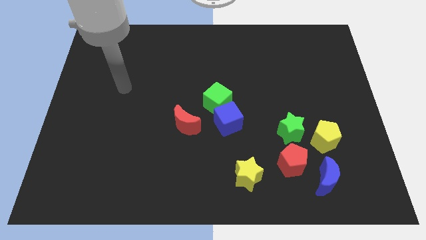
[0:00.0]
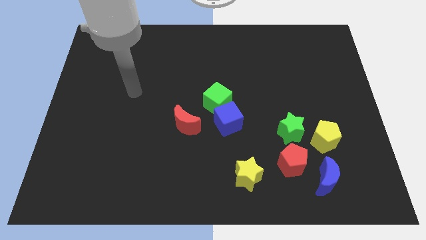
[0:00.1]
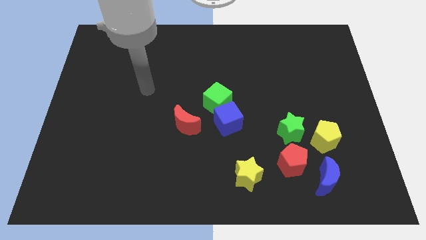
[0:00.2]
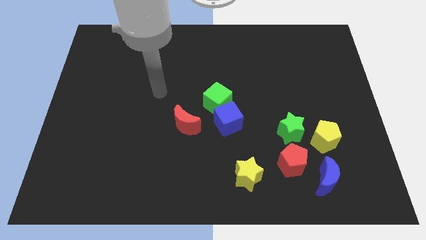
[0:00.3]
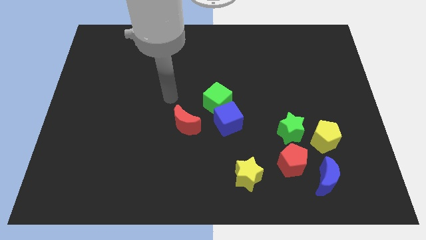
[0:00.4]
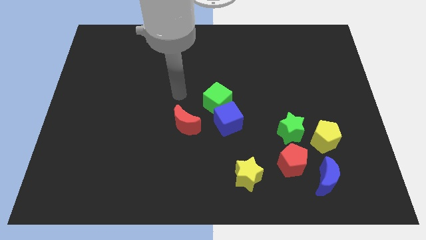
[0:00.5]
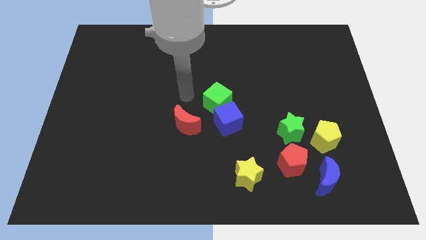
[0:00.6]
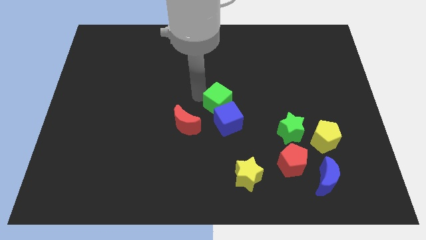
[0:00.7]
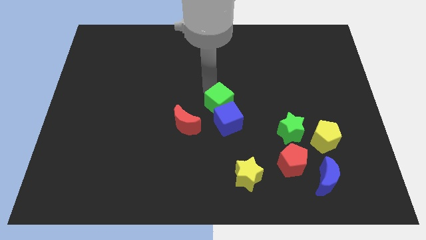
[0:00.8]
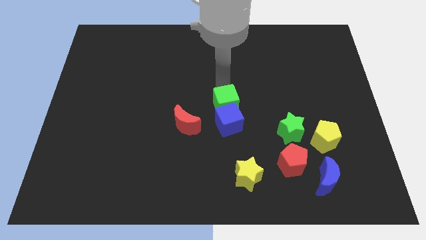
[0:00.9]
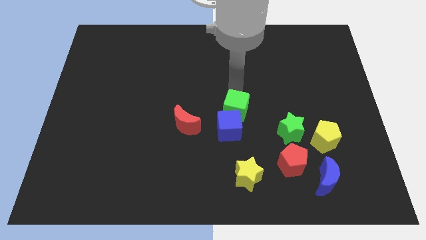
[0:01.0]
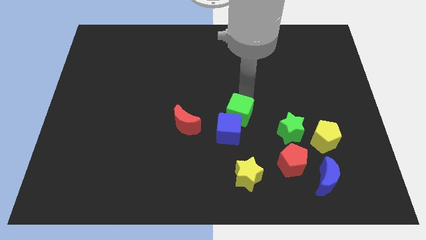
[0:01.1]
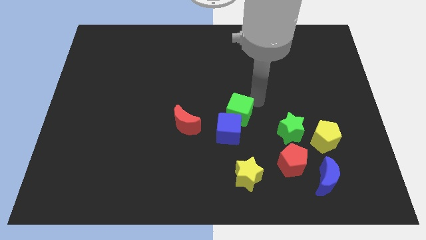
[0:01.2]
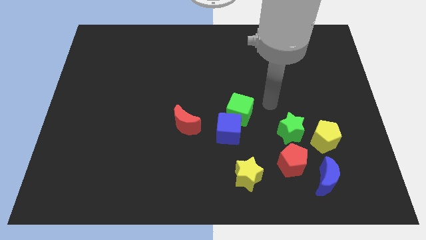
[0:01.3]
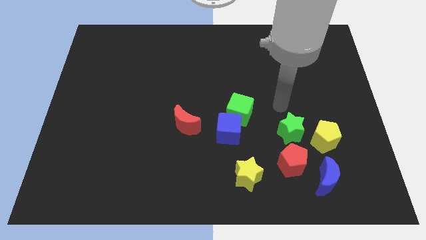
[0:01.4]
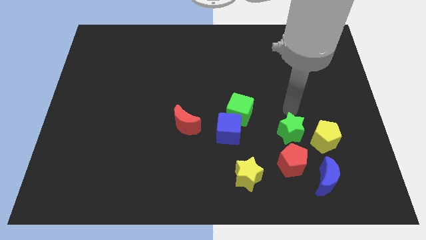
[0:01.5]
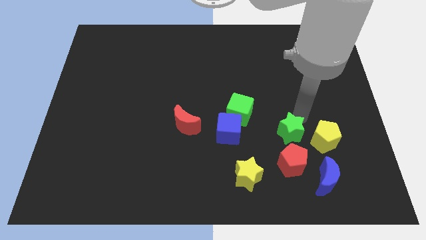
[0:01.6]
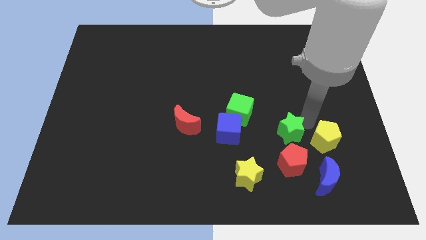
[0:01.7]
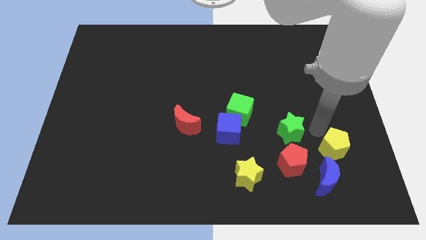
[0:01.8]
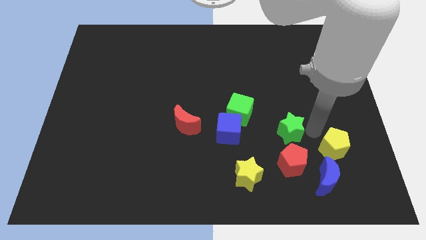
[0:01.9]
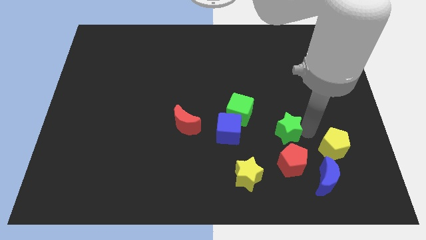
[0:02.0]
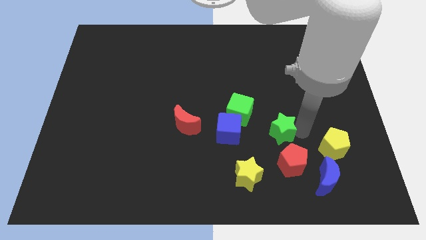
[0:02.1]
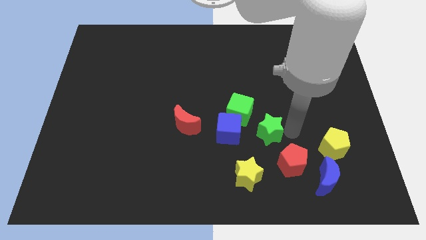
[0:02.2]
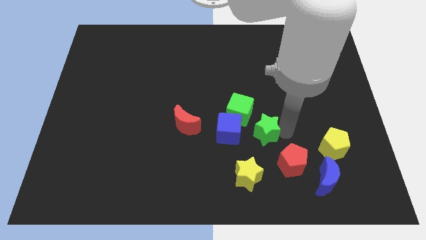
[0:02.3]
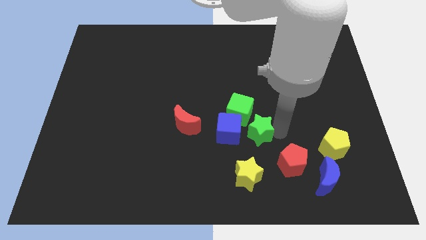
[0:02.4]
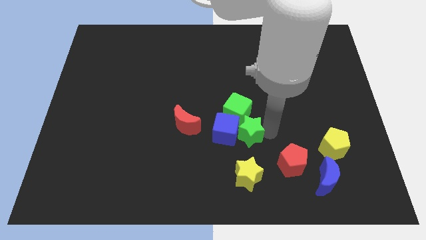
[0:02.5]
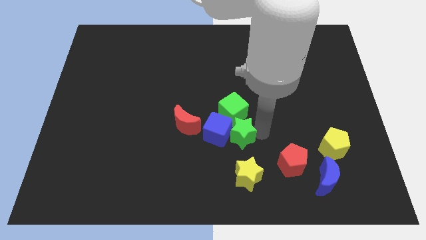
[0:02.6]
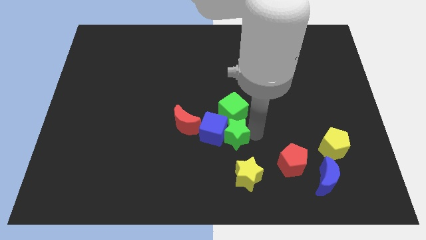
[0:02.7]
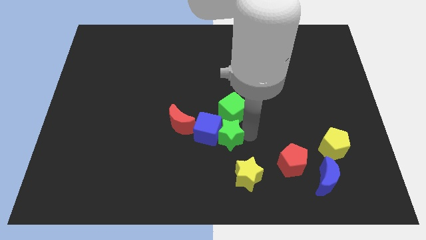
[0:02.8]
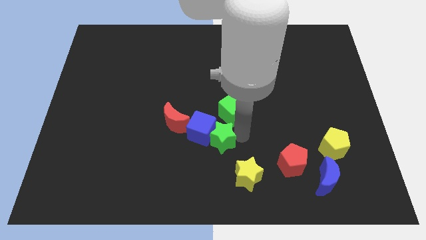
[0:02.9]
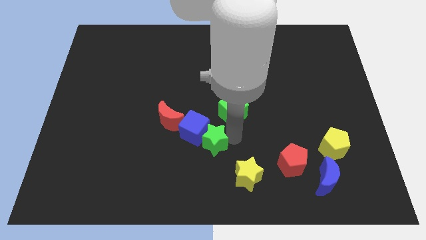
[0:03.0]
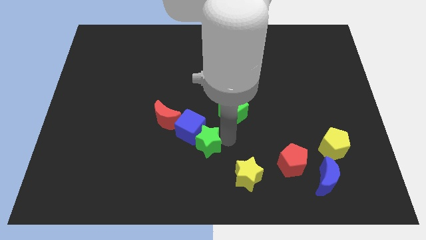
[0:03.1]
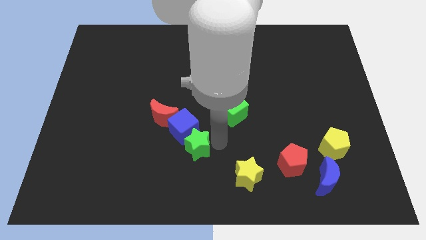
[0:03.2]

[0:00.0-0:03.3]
move the green star to the left

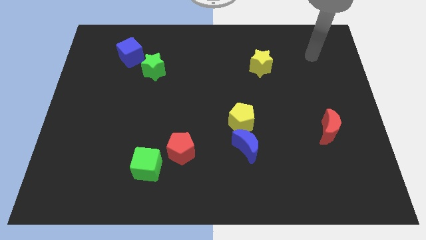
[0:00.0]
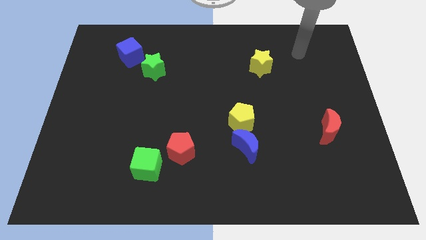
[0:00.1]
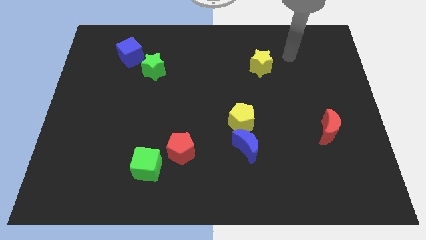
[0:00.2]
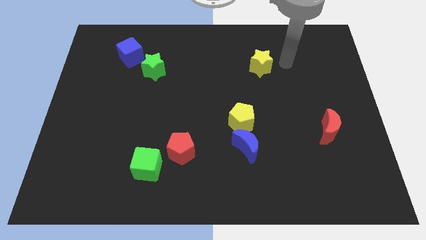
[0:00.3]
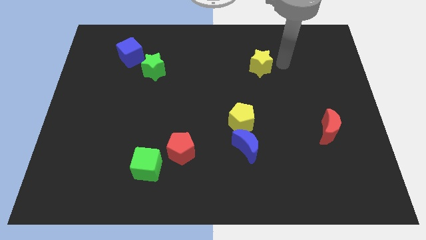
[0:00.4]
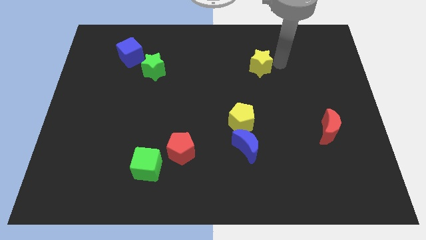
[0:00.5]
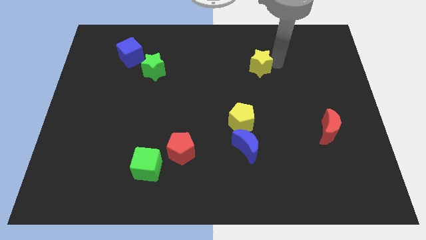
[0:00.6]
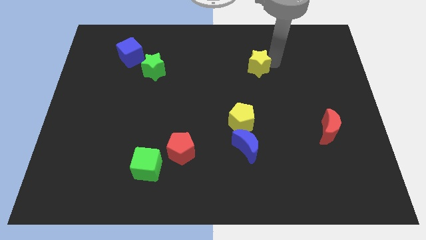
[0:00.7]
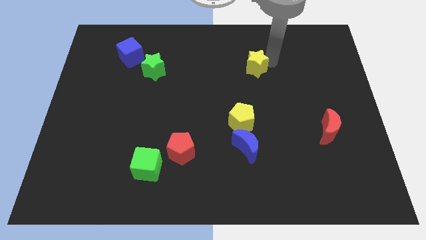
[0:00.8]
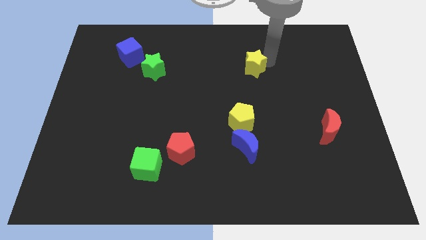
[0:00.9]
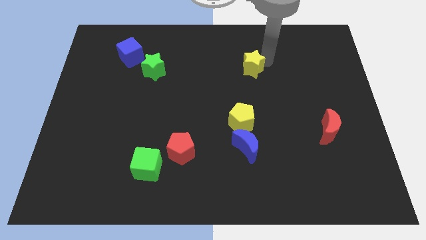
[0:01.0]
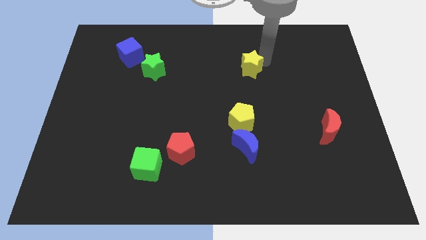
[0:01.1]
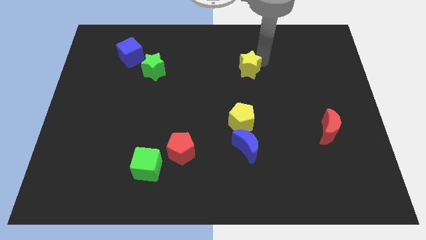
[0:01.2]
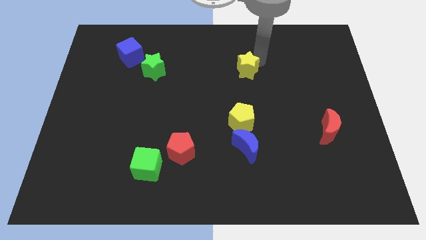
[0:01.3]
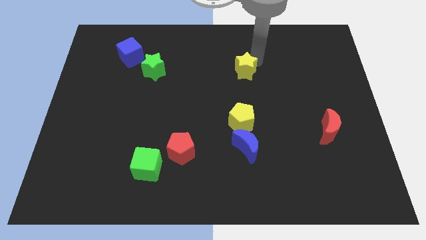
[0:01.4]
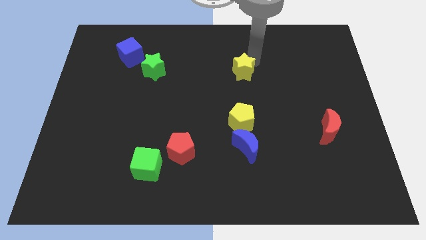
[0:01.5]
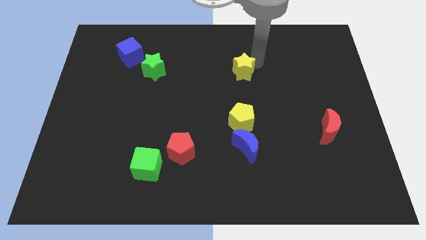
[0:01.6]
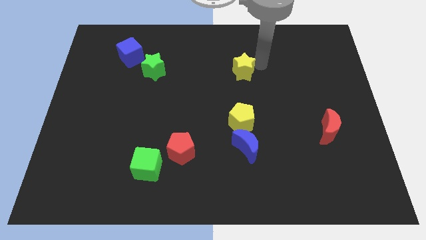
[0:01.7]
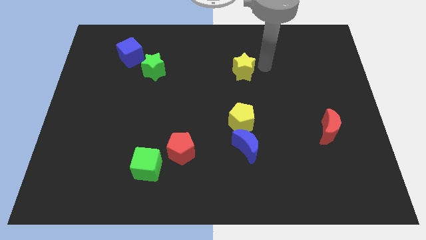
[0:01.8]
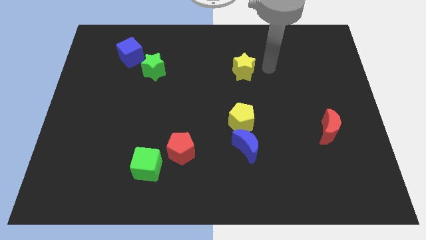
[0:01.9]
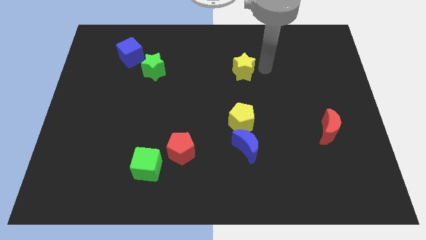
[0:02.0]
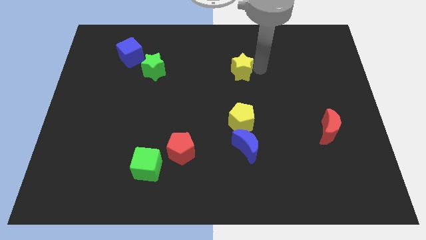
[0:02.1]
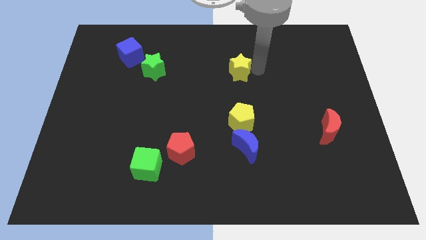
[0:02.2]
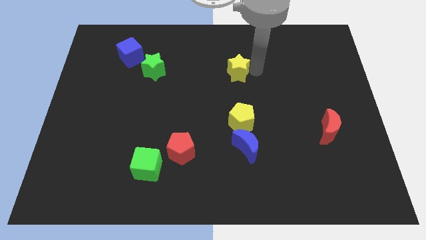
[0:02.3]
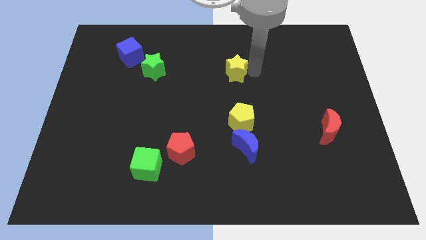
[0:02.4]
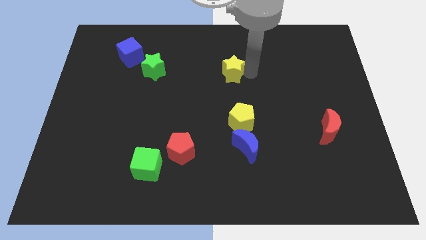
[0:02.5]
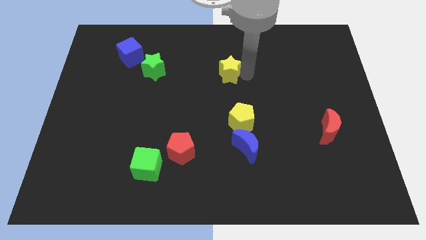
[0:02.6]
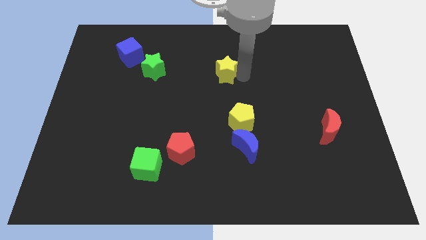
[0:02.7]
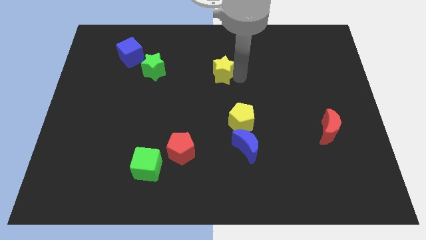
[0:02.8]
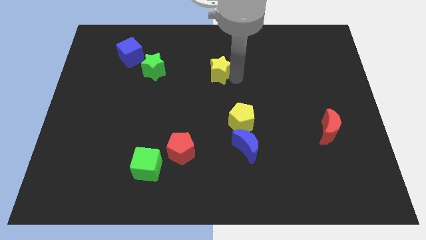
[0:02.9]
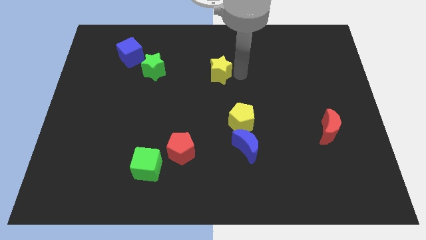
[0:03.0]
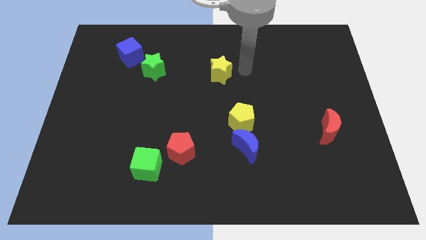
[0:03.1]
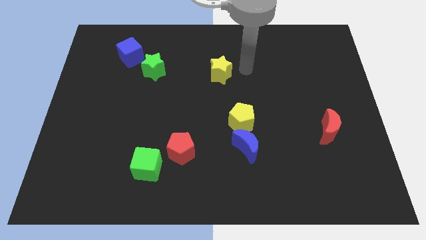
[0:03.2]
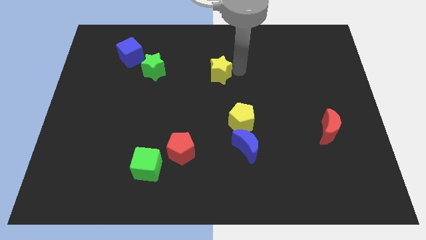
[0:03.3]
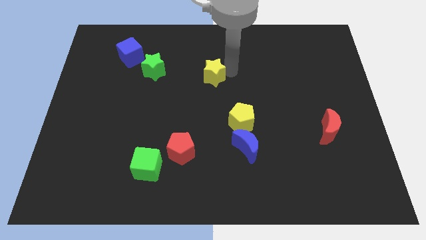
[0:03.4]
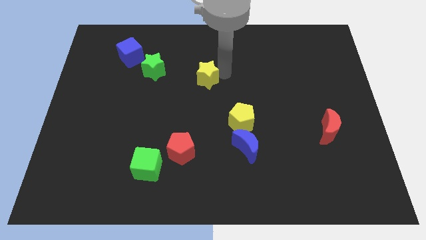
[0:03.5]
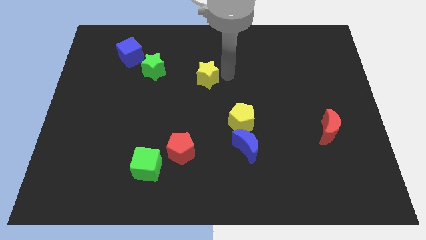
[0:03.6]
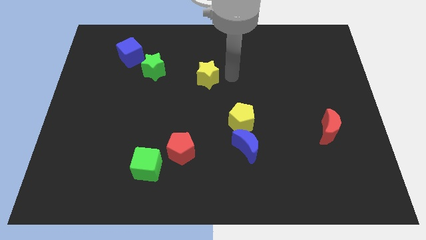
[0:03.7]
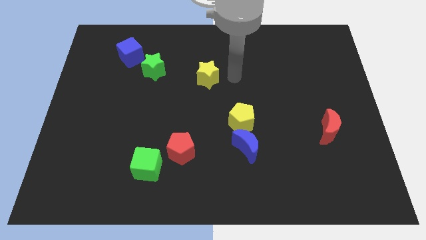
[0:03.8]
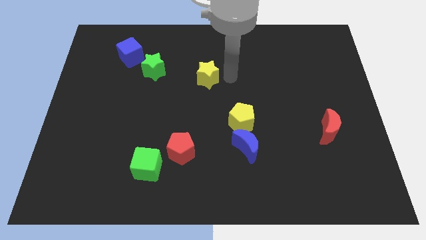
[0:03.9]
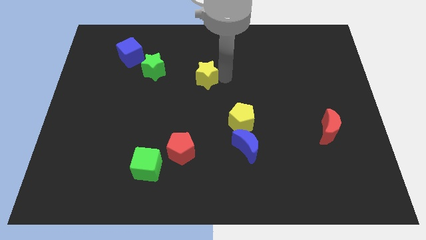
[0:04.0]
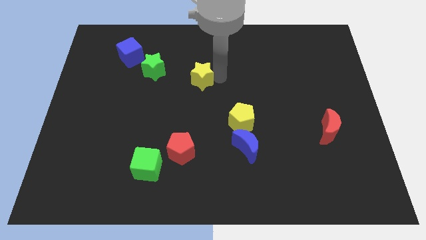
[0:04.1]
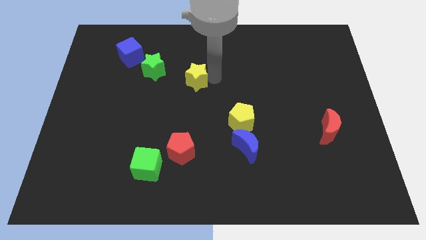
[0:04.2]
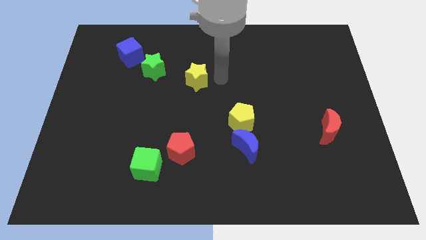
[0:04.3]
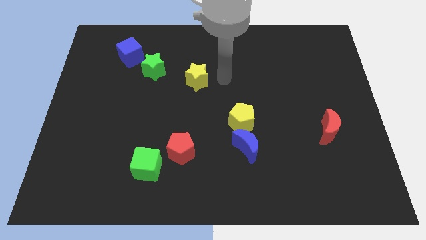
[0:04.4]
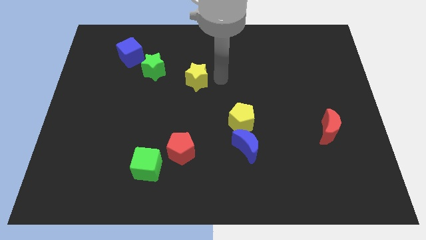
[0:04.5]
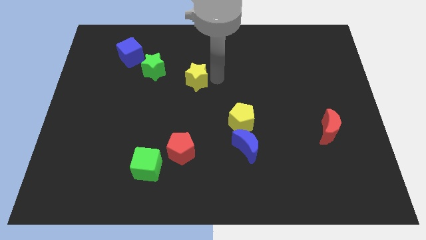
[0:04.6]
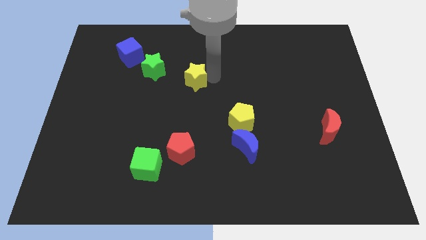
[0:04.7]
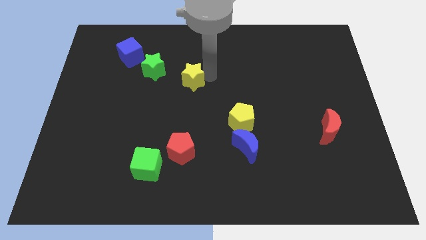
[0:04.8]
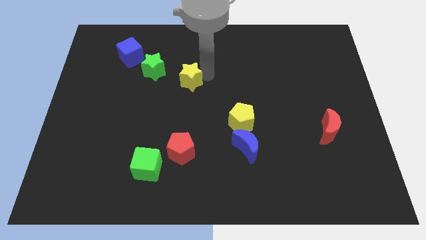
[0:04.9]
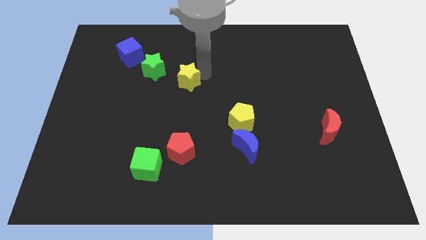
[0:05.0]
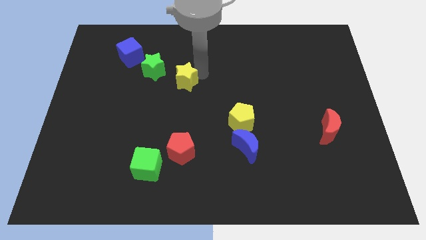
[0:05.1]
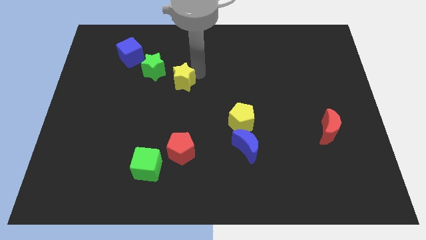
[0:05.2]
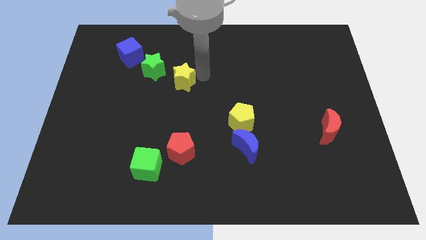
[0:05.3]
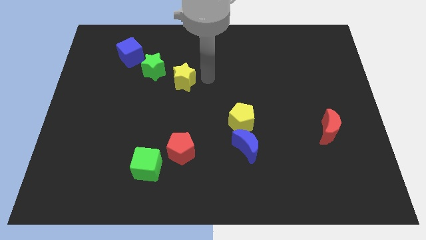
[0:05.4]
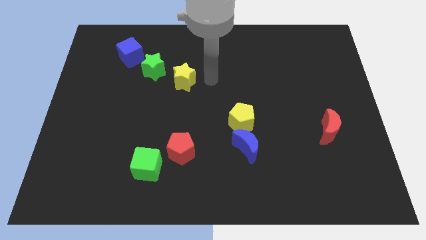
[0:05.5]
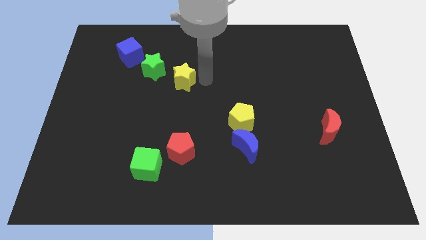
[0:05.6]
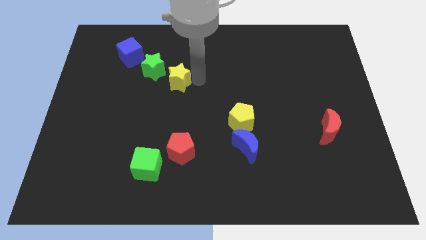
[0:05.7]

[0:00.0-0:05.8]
slide the yellow star left
